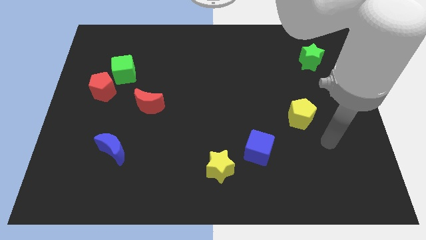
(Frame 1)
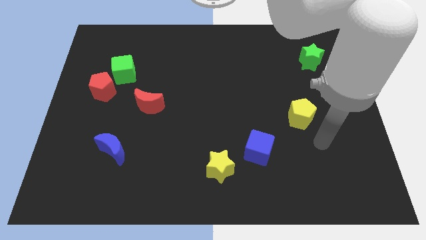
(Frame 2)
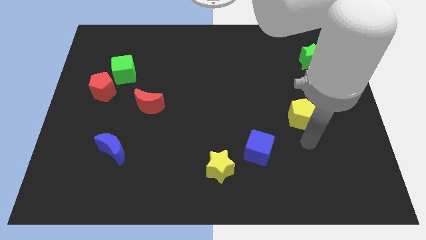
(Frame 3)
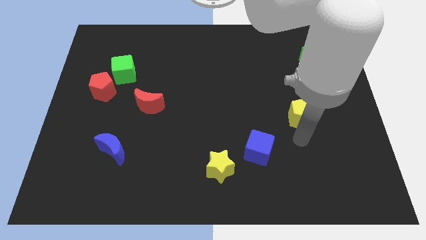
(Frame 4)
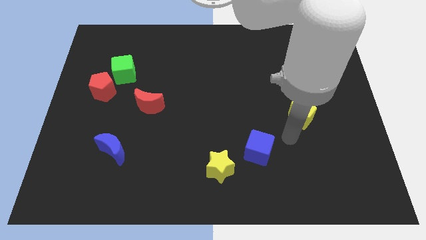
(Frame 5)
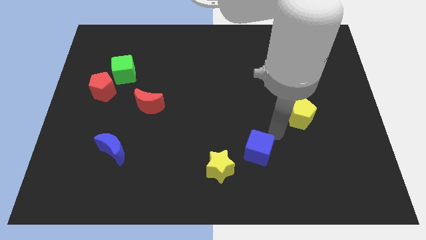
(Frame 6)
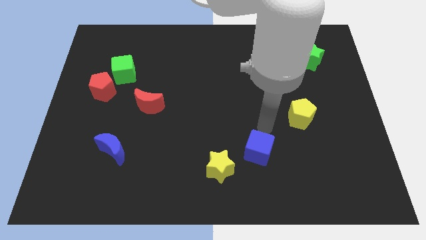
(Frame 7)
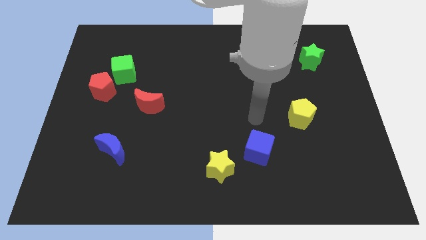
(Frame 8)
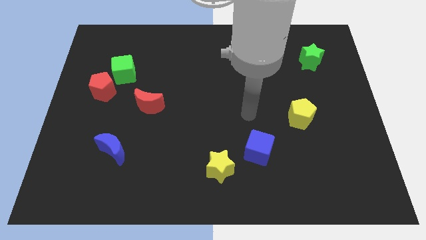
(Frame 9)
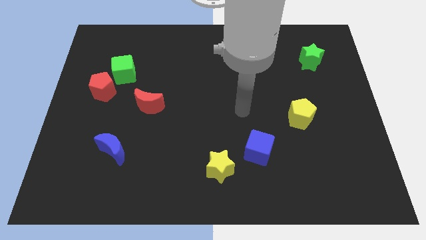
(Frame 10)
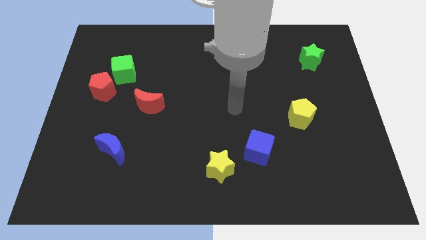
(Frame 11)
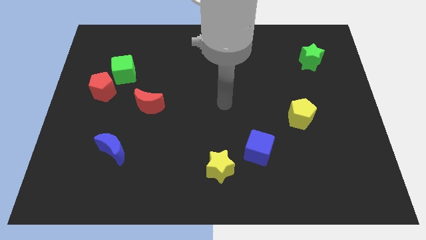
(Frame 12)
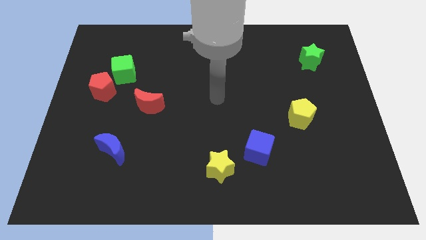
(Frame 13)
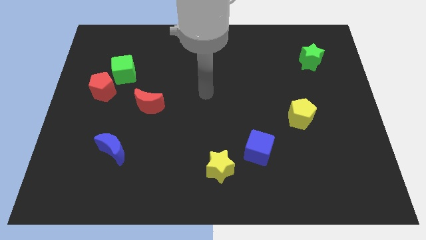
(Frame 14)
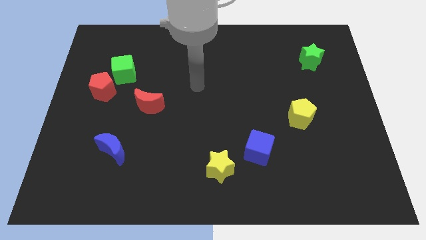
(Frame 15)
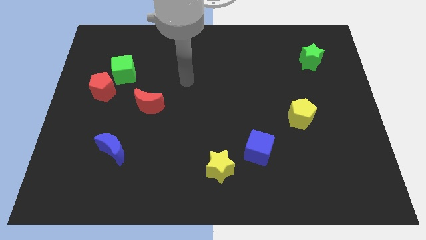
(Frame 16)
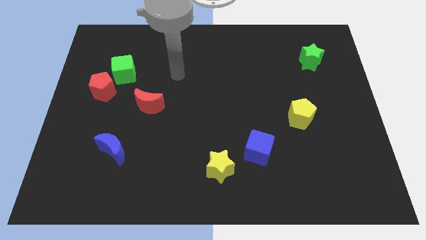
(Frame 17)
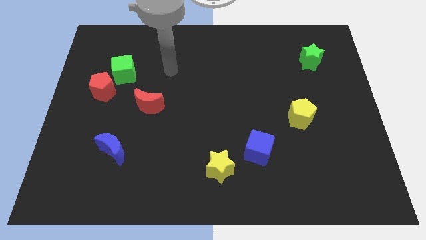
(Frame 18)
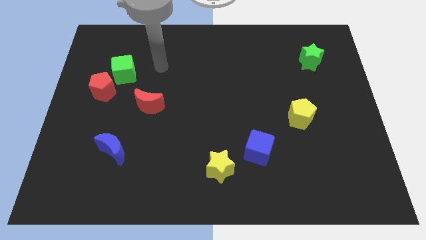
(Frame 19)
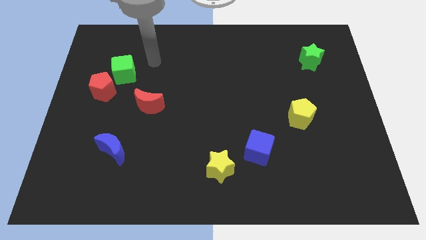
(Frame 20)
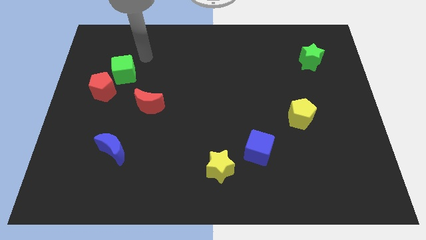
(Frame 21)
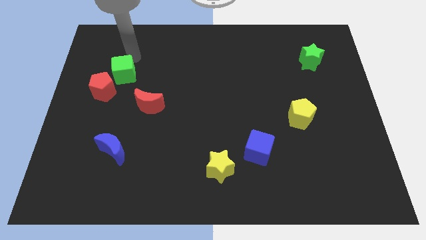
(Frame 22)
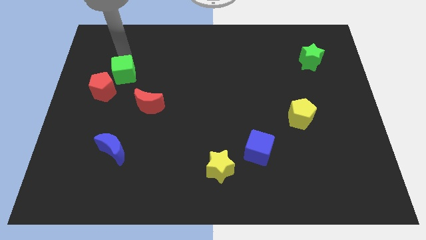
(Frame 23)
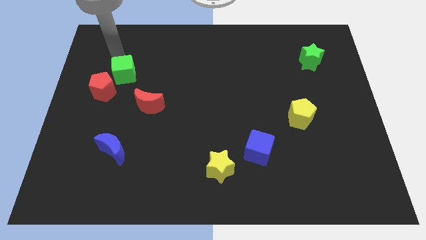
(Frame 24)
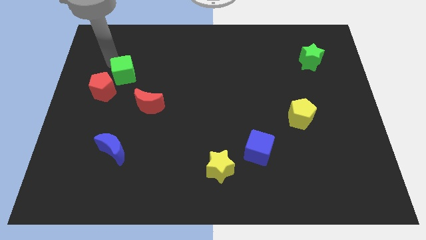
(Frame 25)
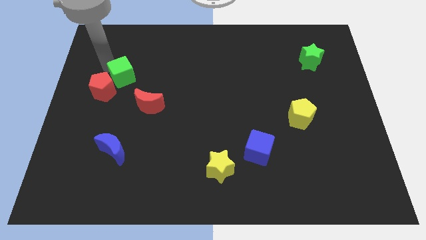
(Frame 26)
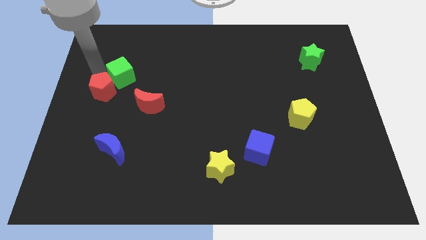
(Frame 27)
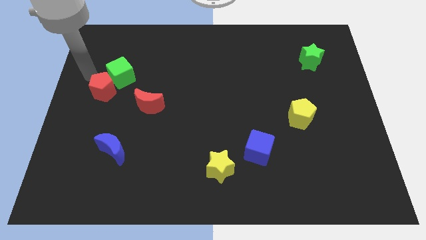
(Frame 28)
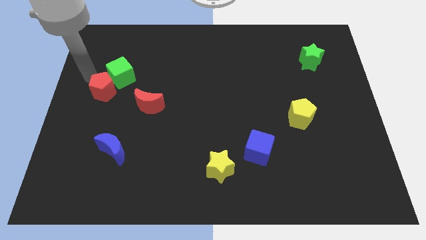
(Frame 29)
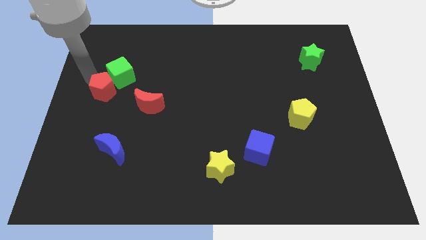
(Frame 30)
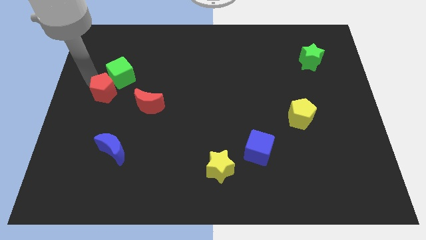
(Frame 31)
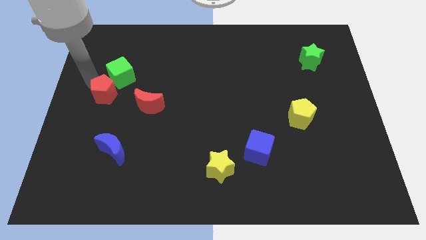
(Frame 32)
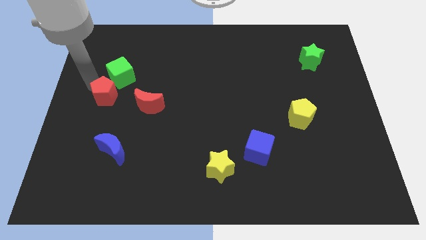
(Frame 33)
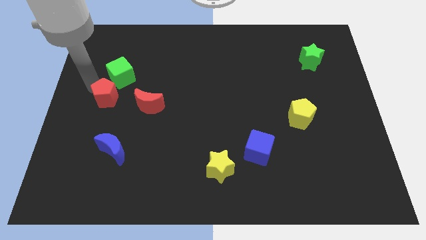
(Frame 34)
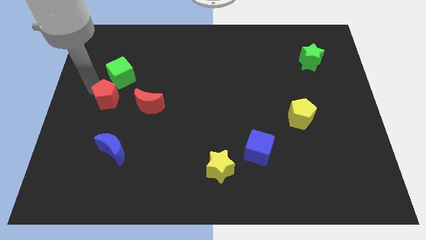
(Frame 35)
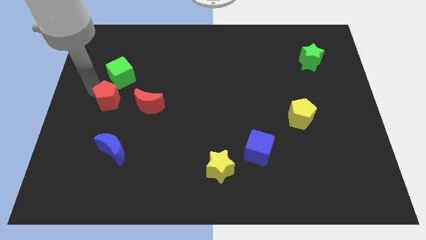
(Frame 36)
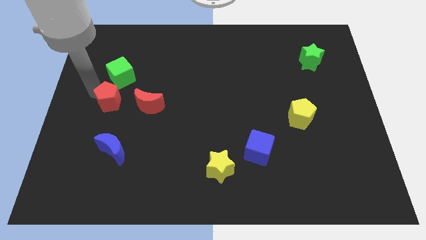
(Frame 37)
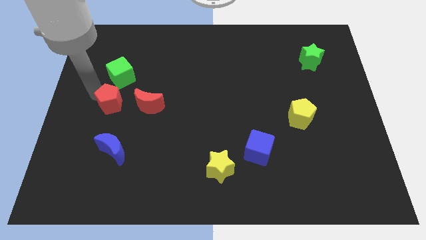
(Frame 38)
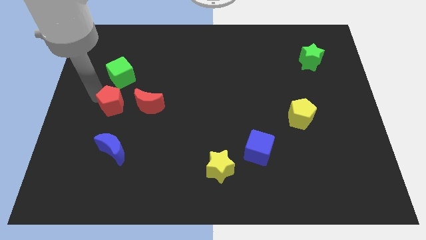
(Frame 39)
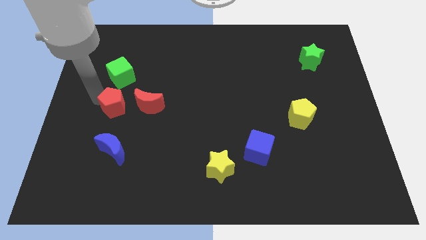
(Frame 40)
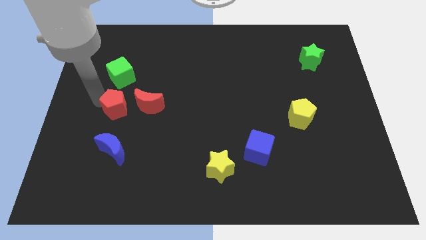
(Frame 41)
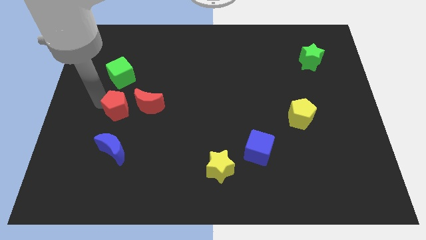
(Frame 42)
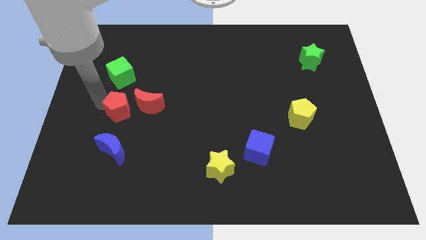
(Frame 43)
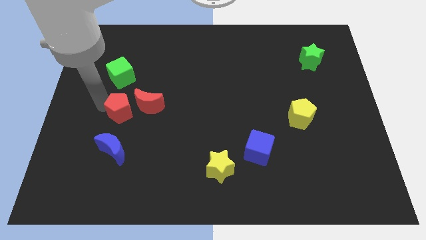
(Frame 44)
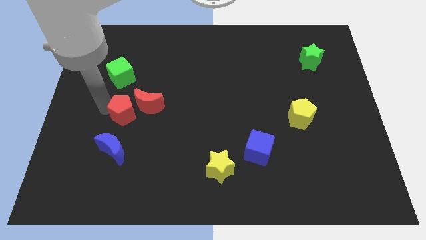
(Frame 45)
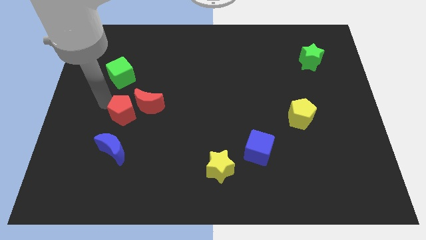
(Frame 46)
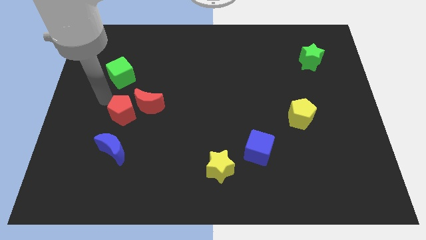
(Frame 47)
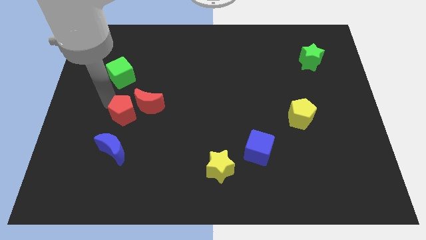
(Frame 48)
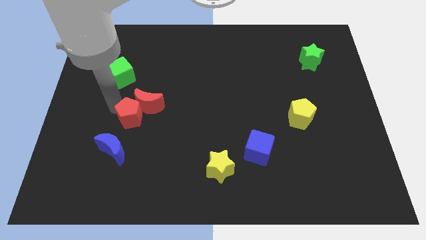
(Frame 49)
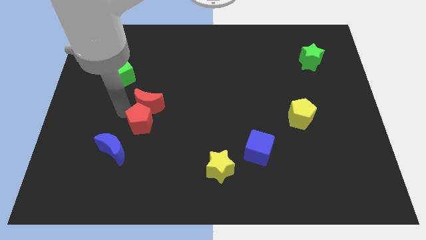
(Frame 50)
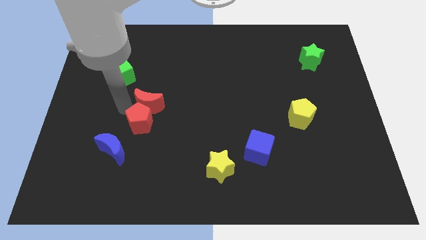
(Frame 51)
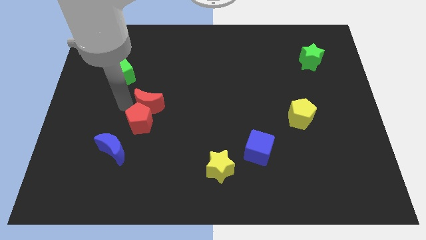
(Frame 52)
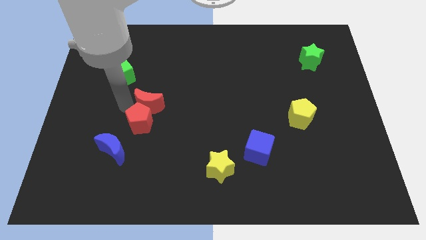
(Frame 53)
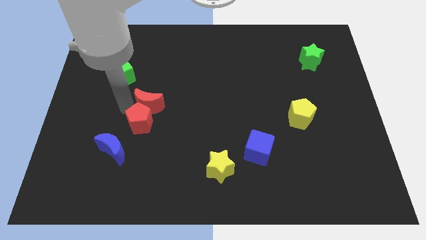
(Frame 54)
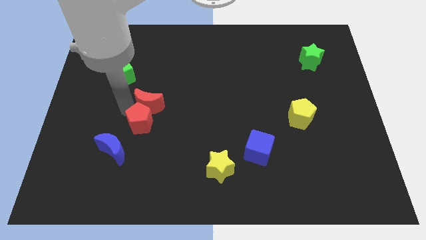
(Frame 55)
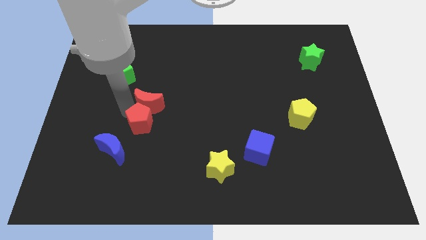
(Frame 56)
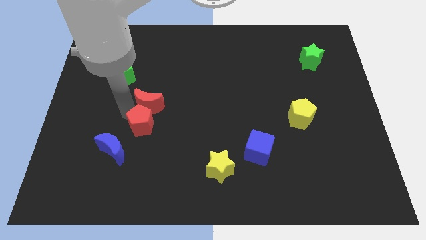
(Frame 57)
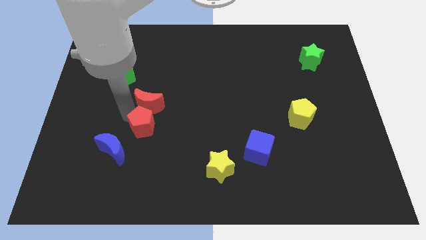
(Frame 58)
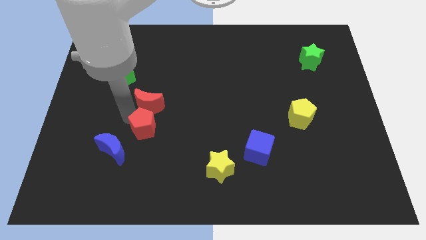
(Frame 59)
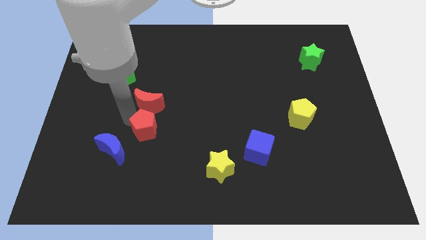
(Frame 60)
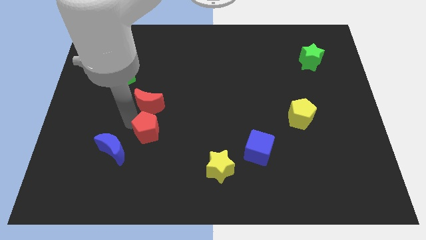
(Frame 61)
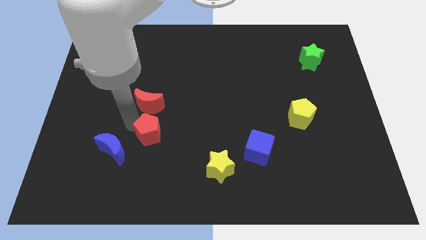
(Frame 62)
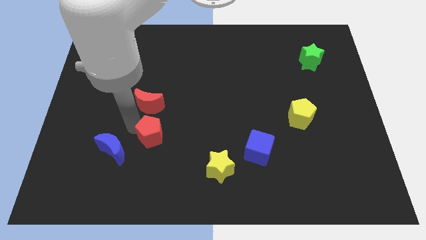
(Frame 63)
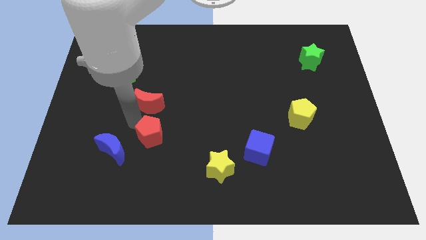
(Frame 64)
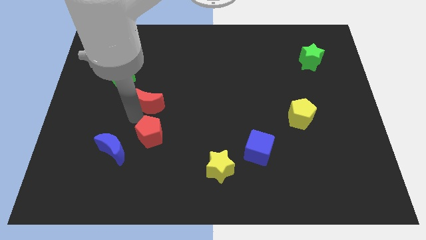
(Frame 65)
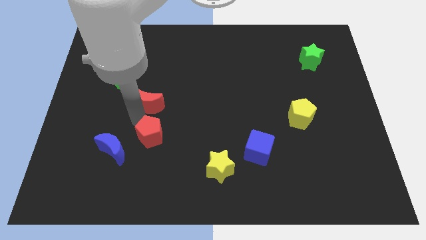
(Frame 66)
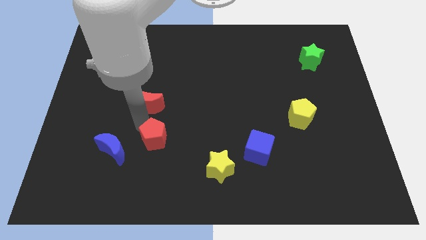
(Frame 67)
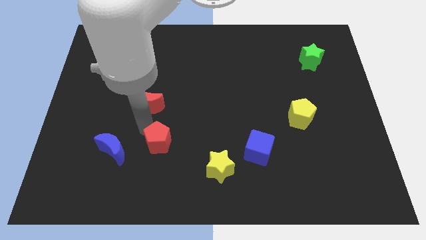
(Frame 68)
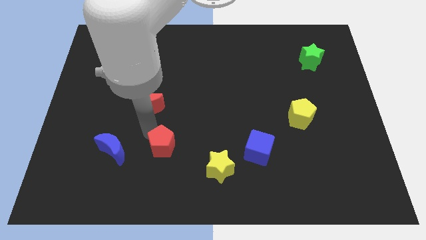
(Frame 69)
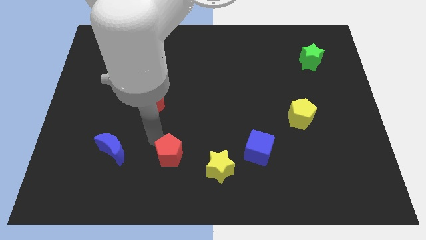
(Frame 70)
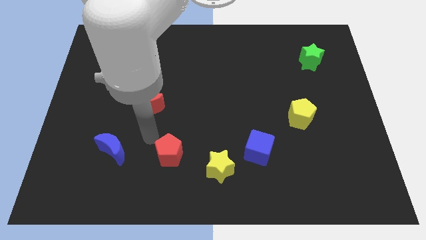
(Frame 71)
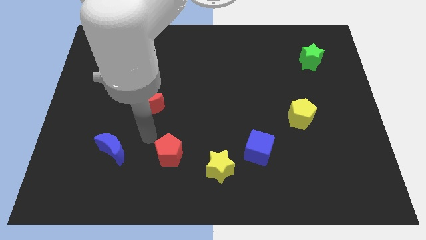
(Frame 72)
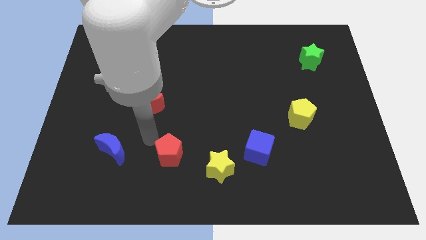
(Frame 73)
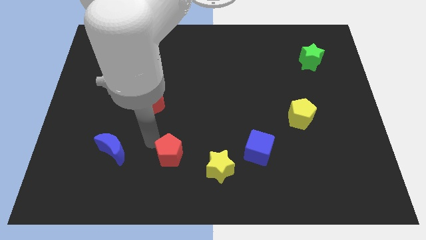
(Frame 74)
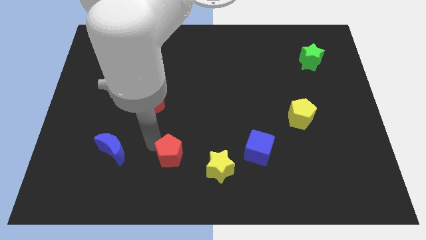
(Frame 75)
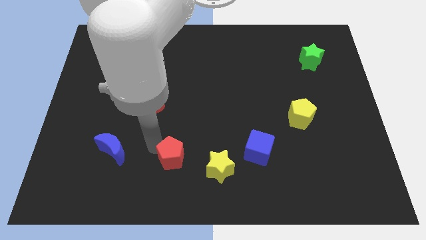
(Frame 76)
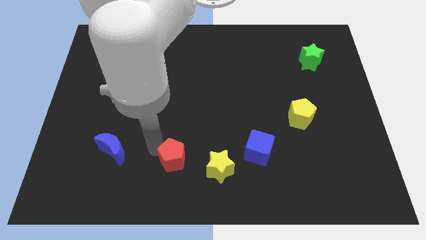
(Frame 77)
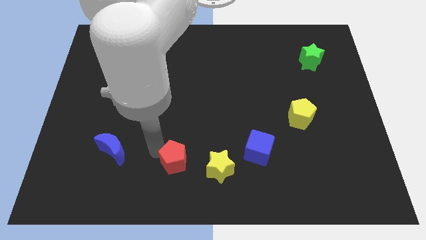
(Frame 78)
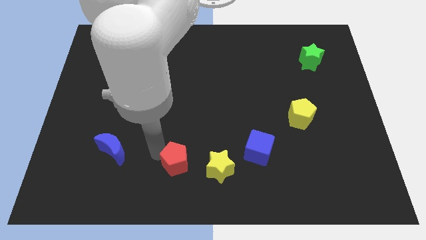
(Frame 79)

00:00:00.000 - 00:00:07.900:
put the red pentagon to the bottom
